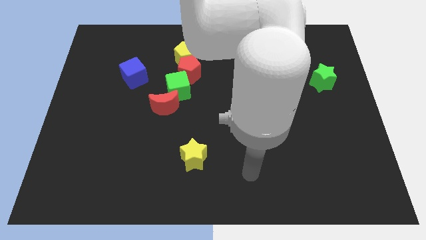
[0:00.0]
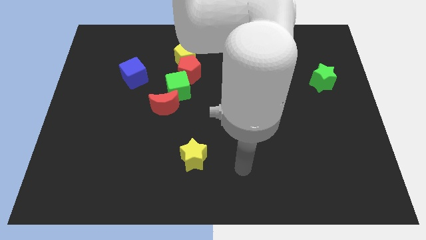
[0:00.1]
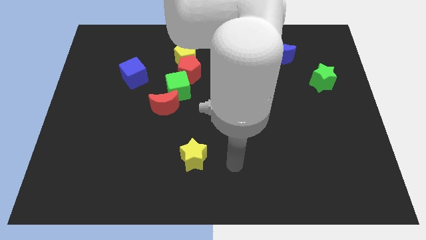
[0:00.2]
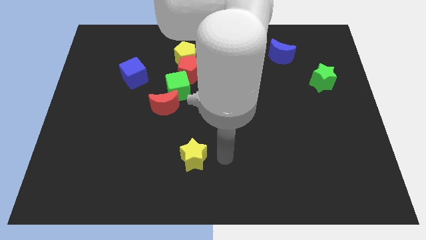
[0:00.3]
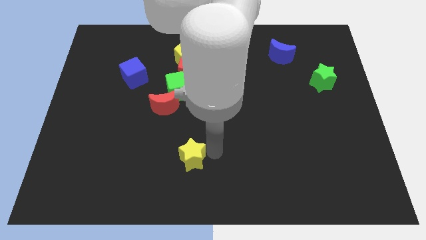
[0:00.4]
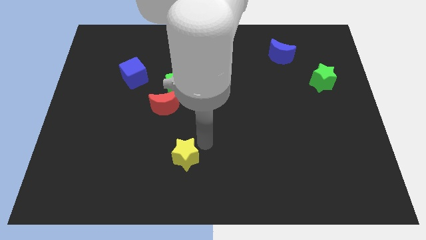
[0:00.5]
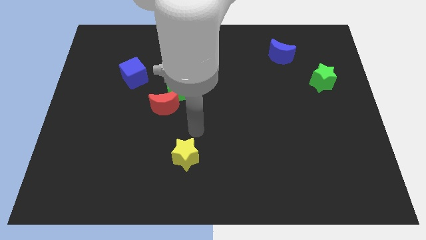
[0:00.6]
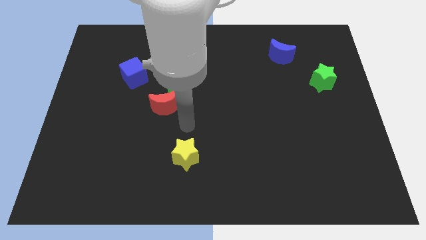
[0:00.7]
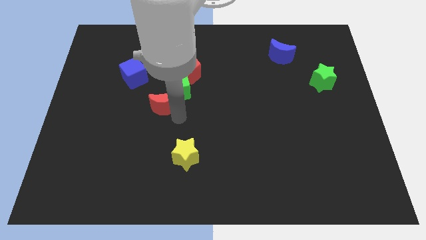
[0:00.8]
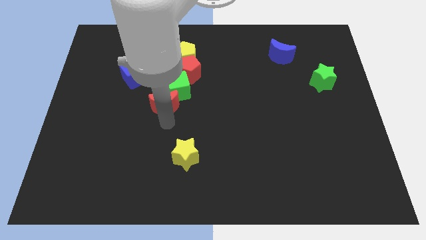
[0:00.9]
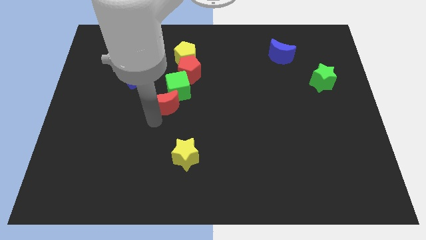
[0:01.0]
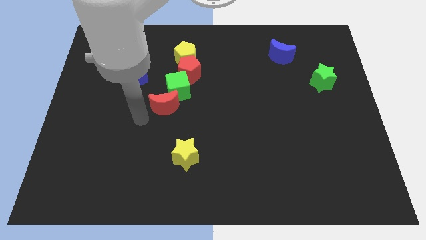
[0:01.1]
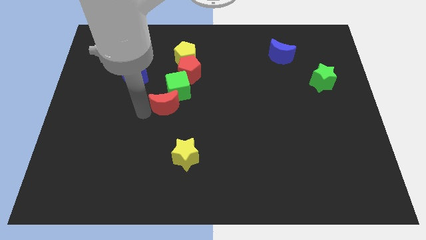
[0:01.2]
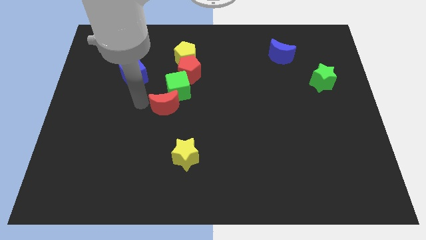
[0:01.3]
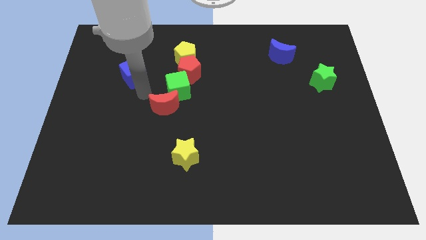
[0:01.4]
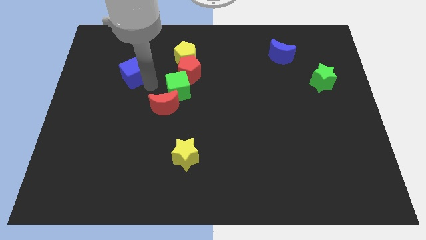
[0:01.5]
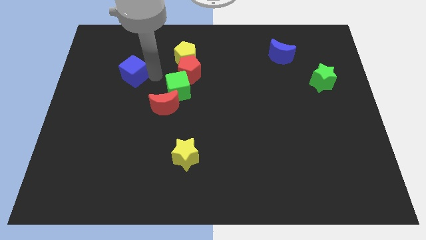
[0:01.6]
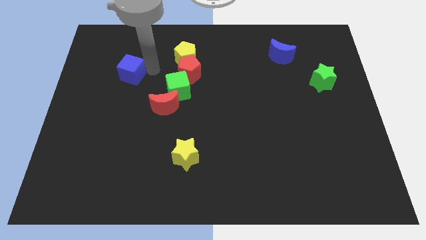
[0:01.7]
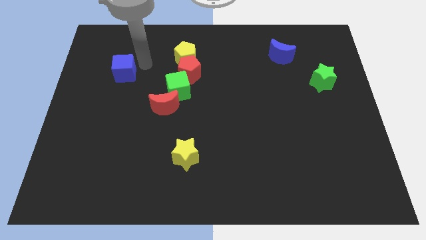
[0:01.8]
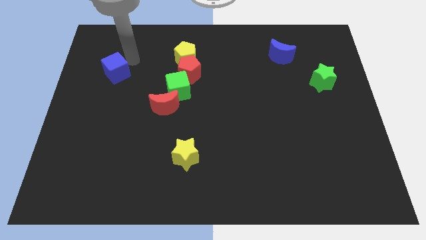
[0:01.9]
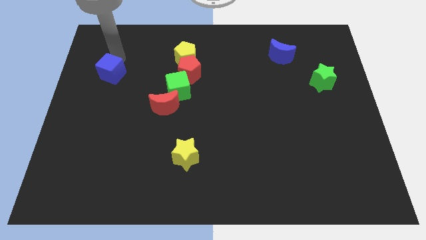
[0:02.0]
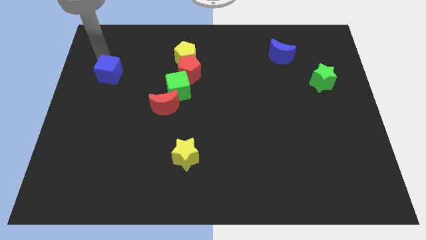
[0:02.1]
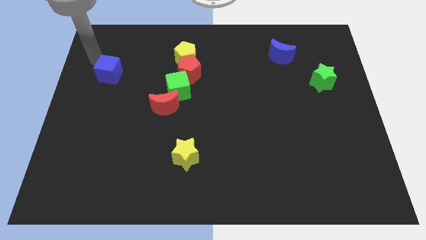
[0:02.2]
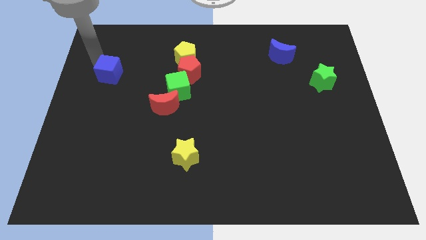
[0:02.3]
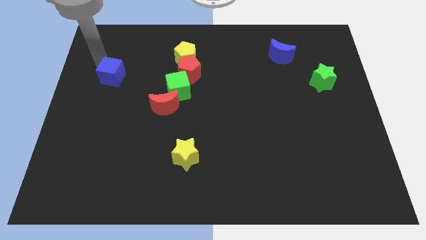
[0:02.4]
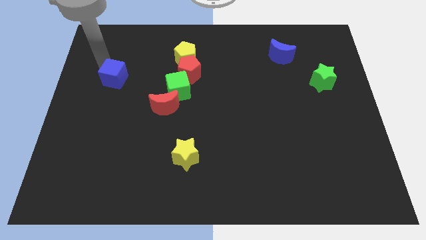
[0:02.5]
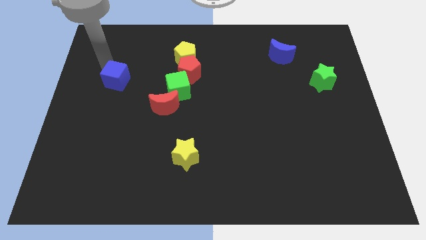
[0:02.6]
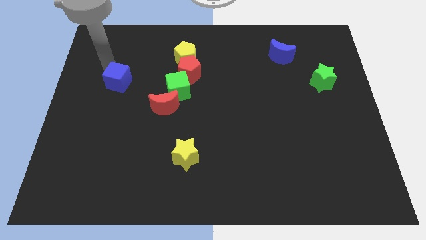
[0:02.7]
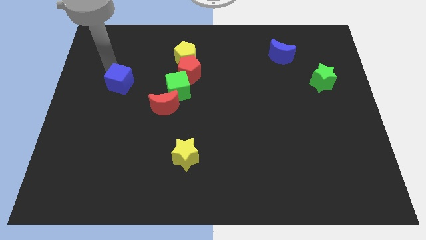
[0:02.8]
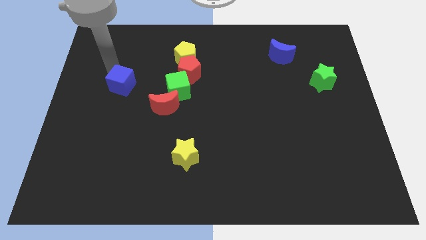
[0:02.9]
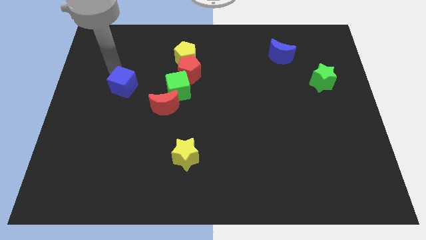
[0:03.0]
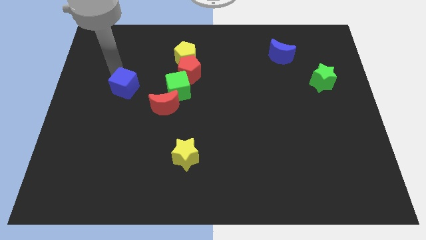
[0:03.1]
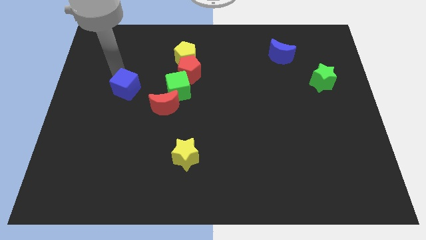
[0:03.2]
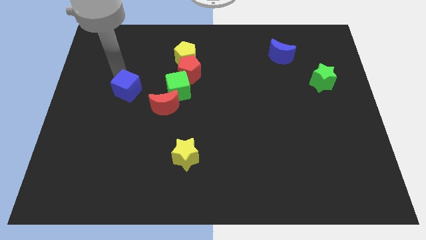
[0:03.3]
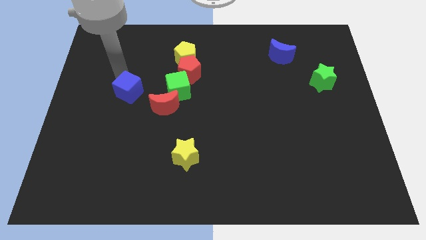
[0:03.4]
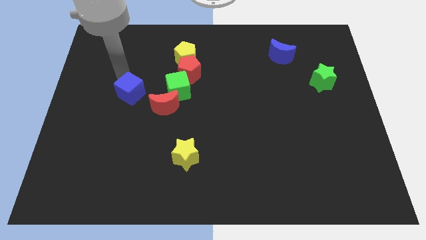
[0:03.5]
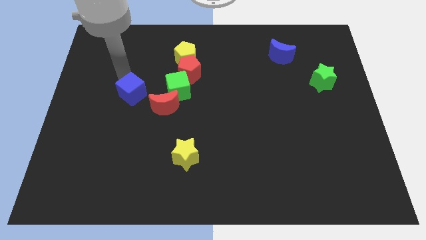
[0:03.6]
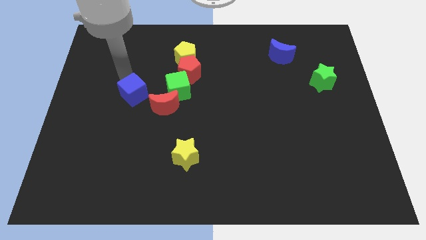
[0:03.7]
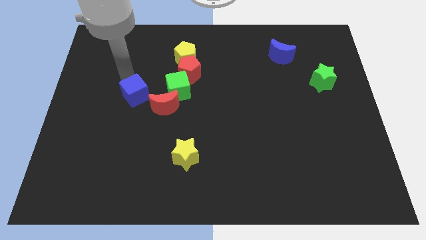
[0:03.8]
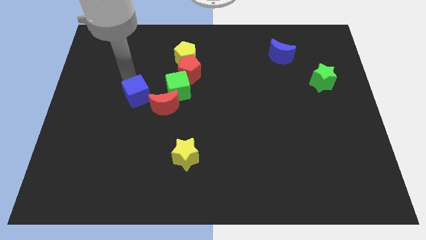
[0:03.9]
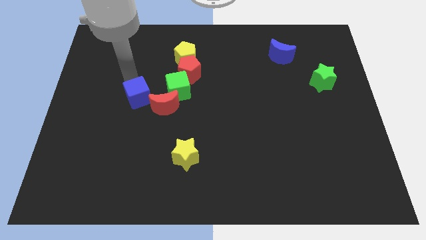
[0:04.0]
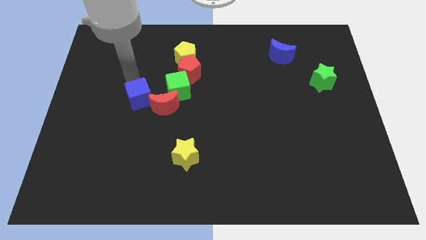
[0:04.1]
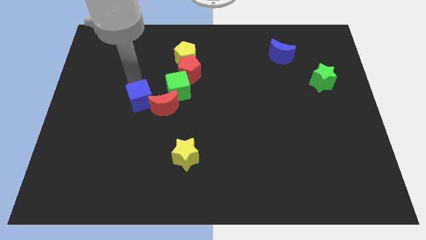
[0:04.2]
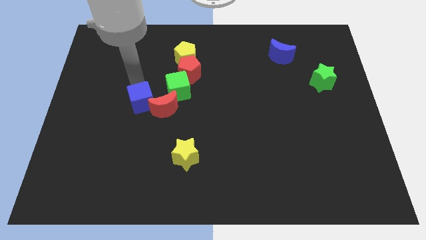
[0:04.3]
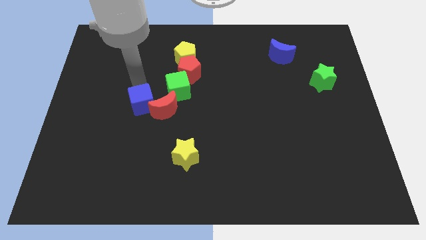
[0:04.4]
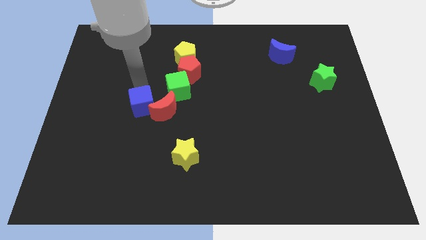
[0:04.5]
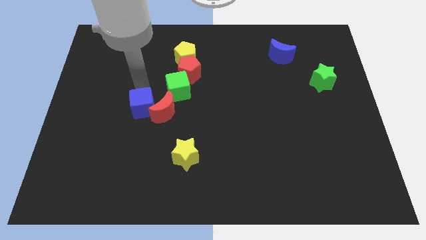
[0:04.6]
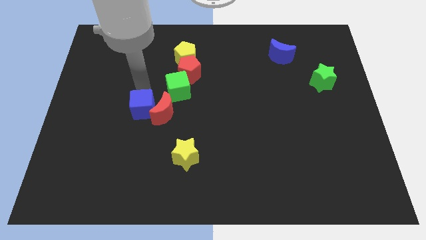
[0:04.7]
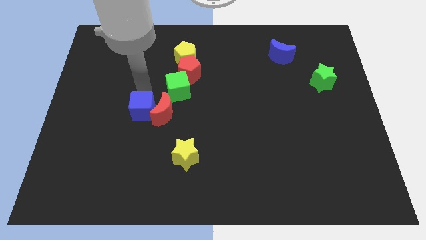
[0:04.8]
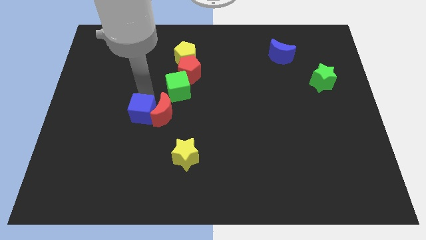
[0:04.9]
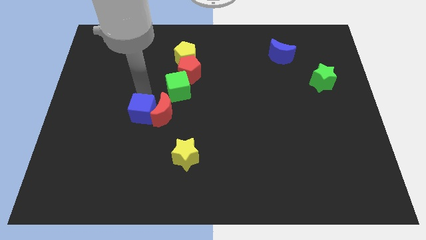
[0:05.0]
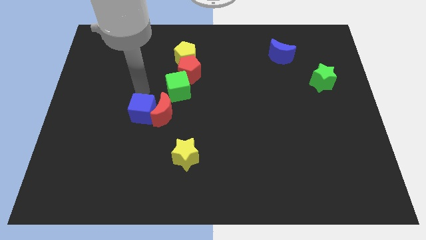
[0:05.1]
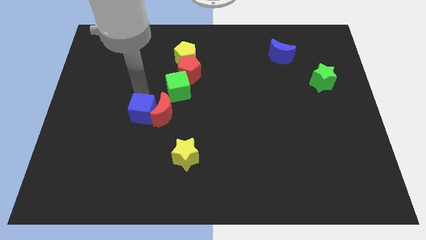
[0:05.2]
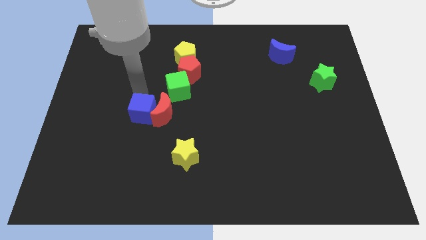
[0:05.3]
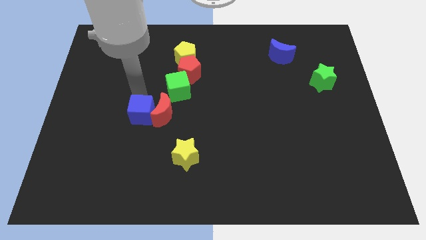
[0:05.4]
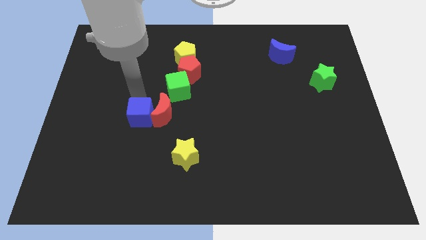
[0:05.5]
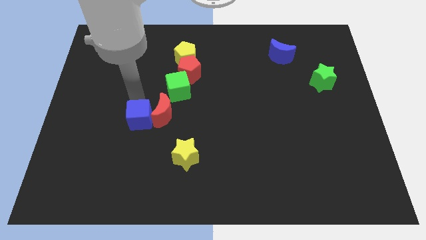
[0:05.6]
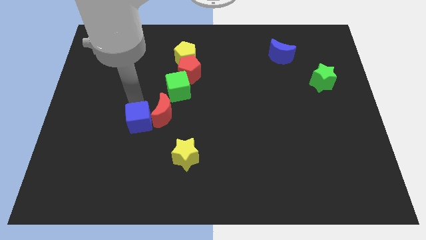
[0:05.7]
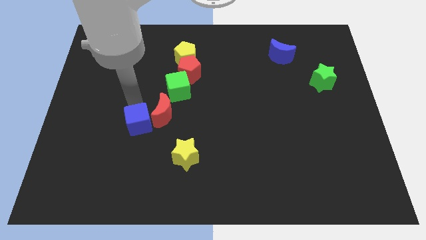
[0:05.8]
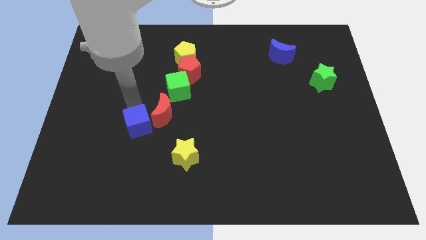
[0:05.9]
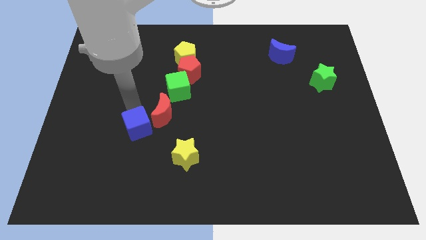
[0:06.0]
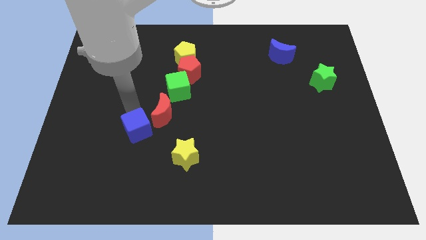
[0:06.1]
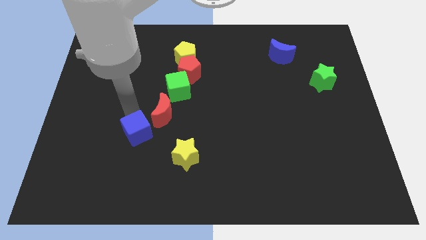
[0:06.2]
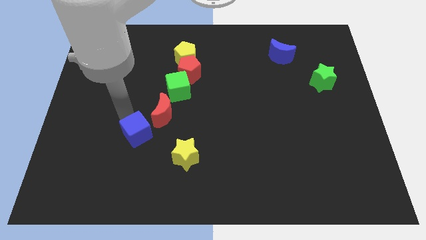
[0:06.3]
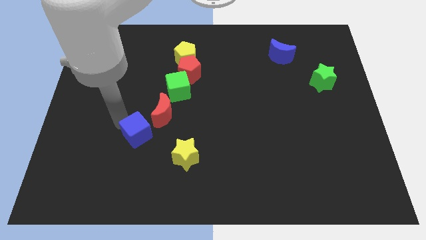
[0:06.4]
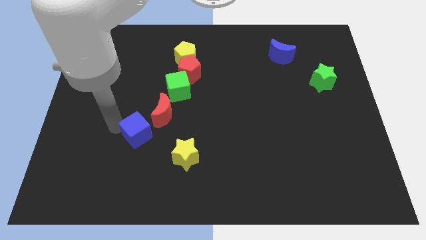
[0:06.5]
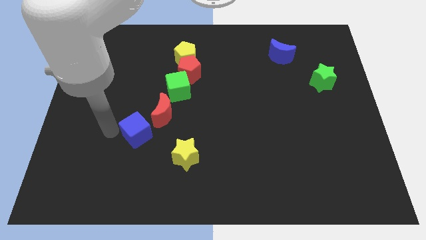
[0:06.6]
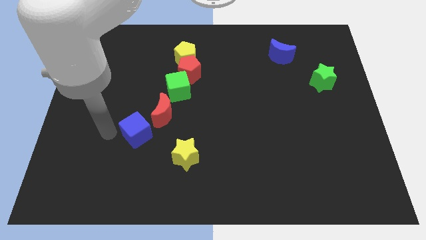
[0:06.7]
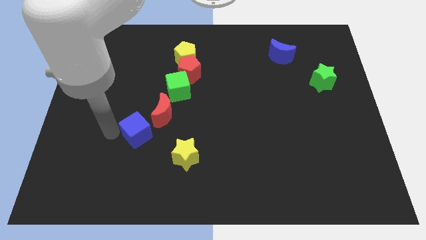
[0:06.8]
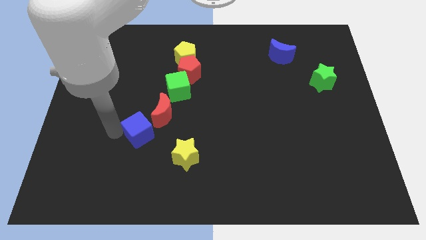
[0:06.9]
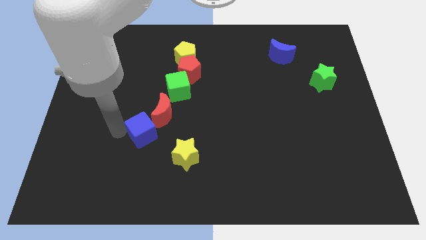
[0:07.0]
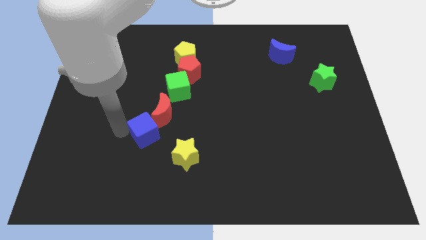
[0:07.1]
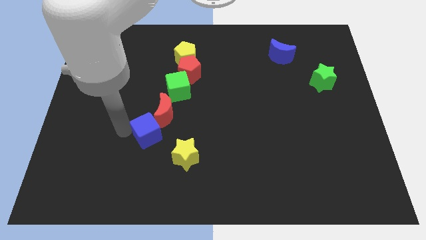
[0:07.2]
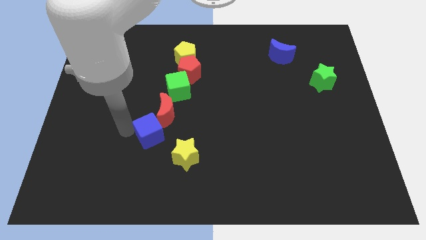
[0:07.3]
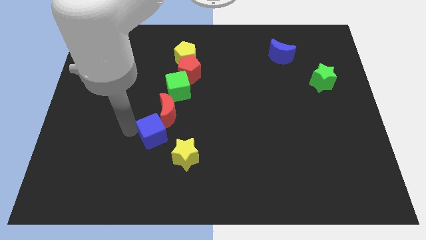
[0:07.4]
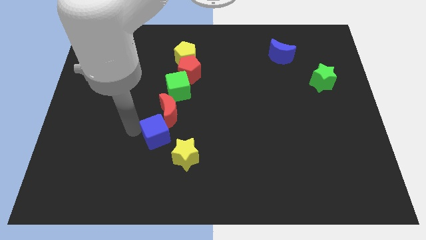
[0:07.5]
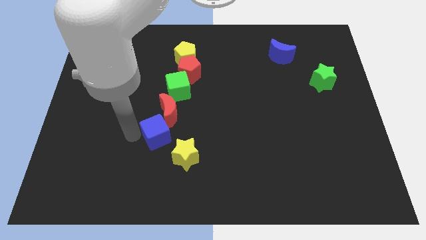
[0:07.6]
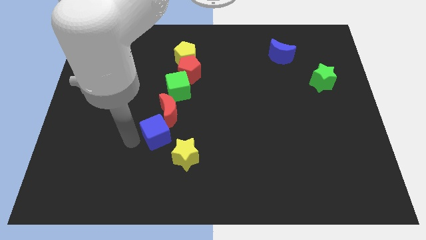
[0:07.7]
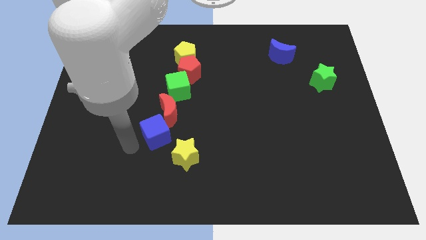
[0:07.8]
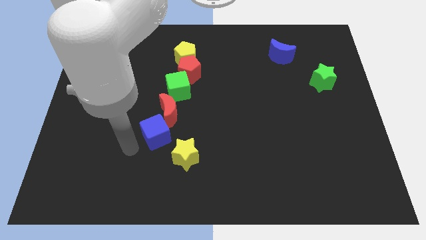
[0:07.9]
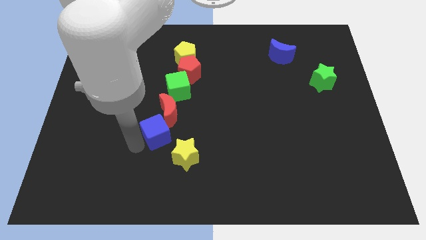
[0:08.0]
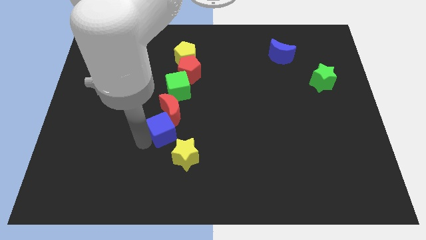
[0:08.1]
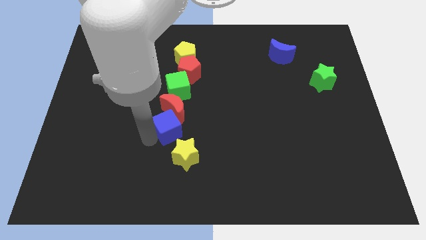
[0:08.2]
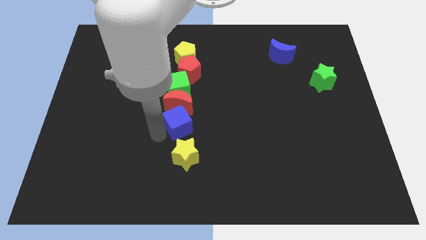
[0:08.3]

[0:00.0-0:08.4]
slide the blue cube to the middle
